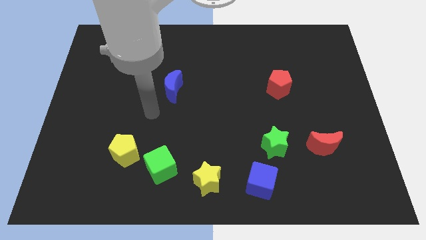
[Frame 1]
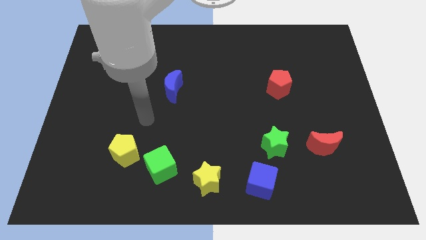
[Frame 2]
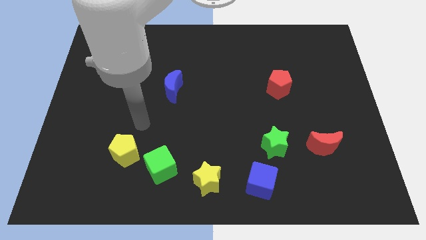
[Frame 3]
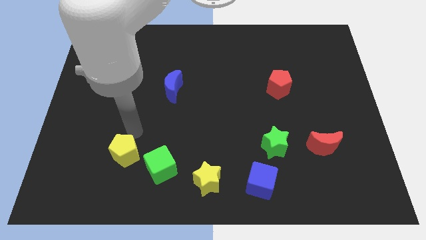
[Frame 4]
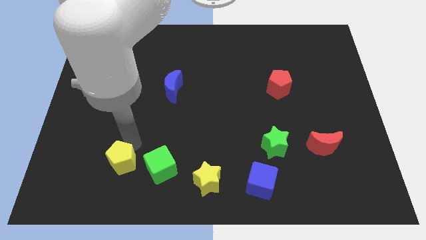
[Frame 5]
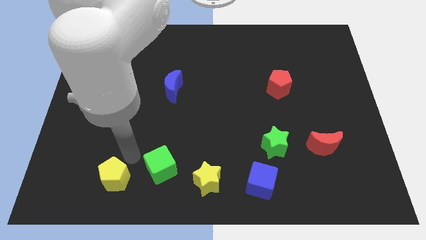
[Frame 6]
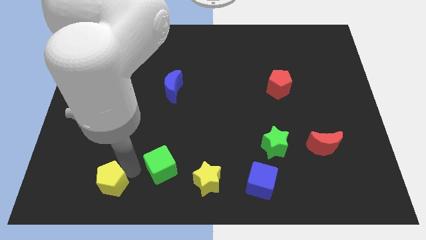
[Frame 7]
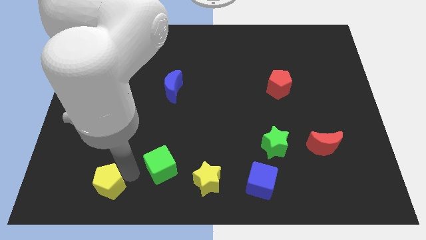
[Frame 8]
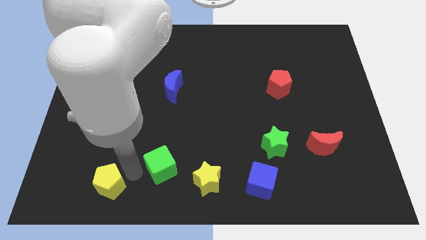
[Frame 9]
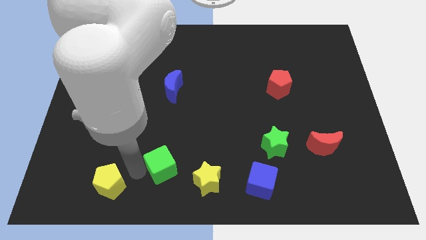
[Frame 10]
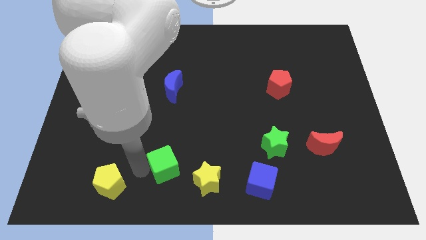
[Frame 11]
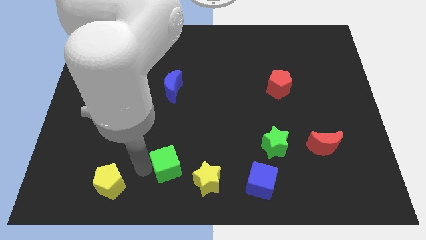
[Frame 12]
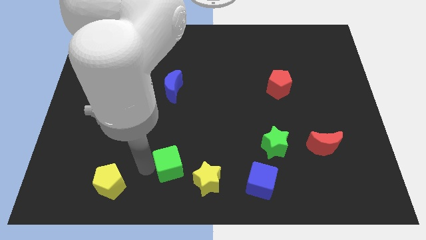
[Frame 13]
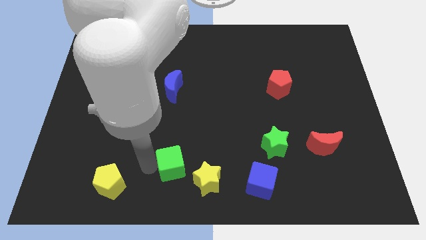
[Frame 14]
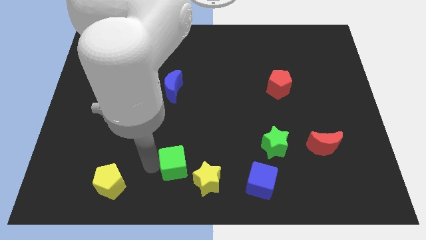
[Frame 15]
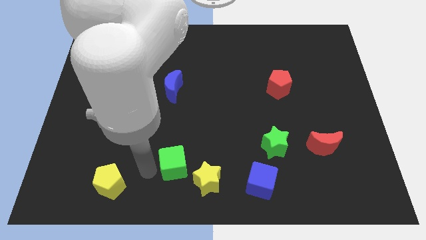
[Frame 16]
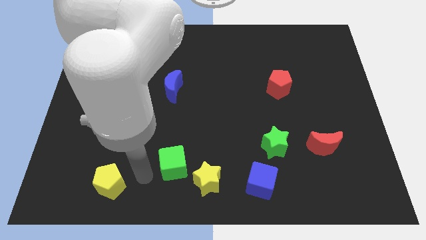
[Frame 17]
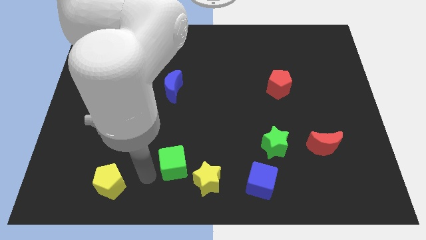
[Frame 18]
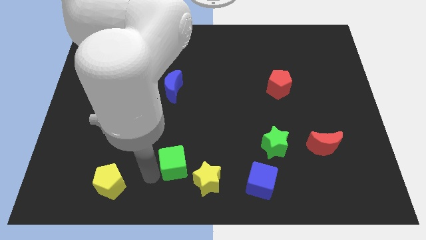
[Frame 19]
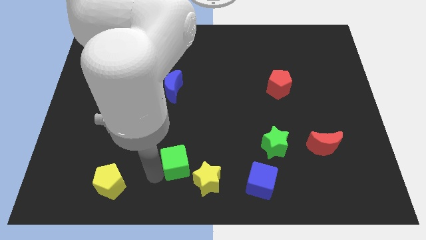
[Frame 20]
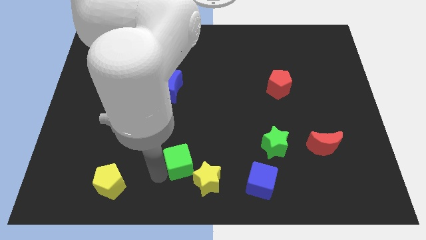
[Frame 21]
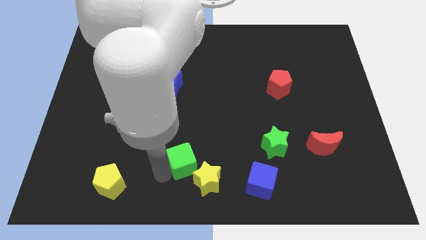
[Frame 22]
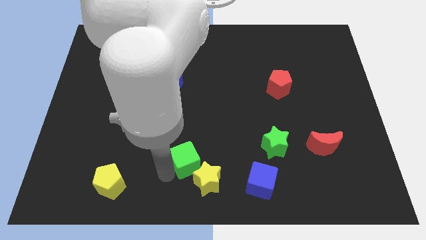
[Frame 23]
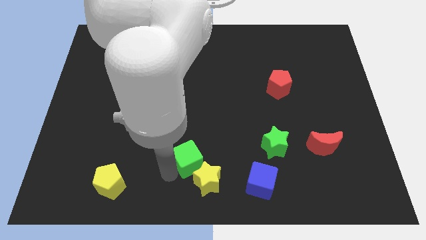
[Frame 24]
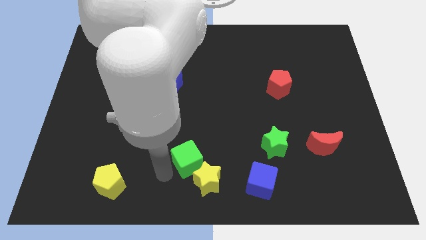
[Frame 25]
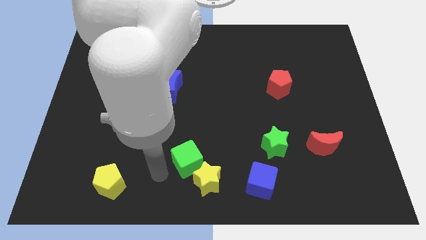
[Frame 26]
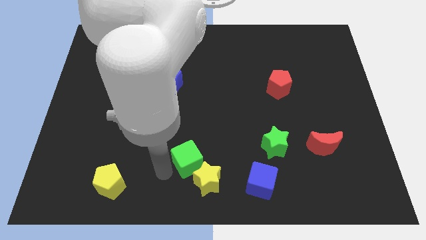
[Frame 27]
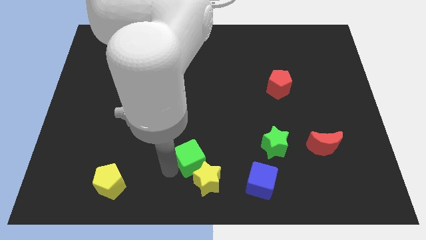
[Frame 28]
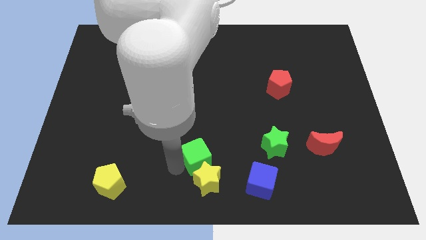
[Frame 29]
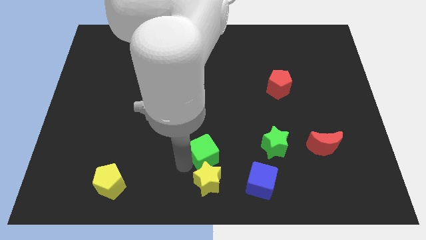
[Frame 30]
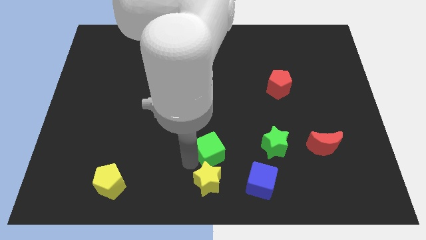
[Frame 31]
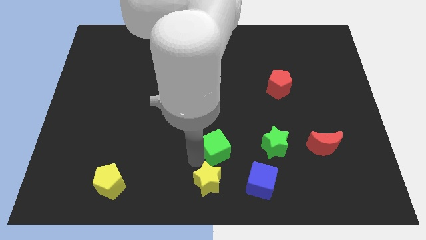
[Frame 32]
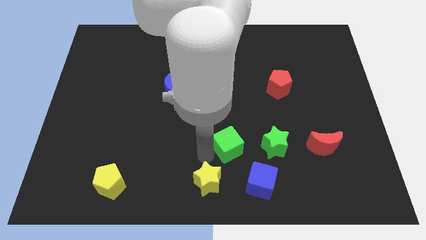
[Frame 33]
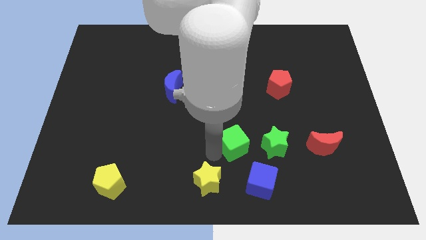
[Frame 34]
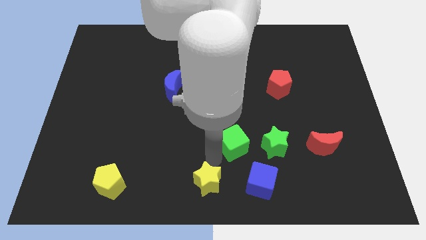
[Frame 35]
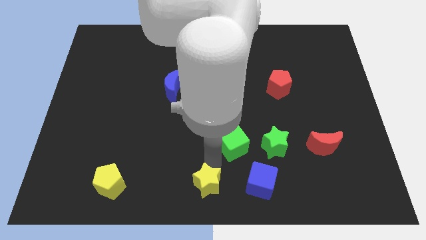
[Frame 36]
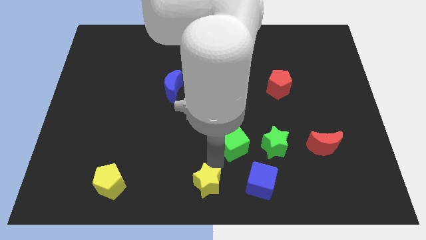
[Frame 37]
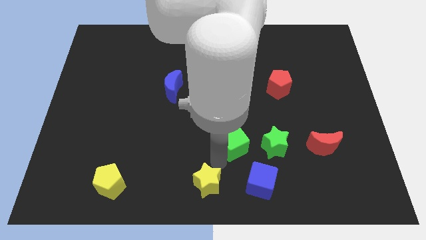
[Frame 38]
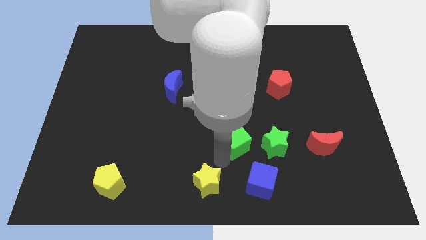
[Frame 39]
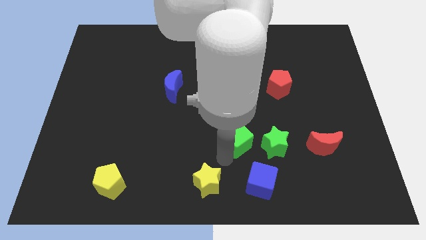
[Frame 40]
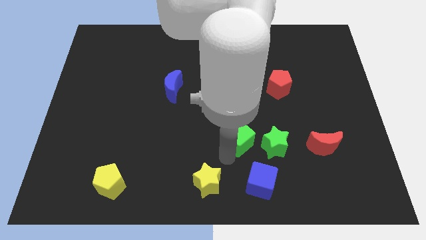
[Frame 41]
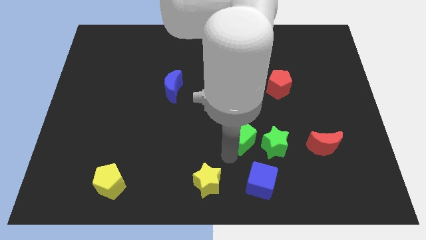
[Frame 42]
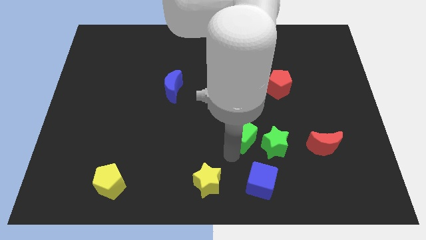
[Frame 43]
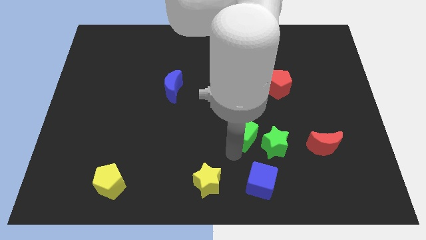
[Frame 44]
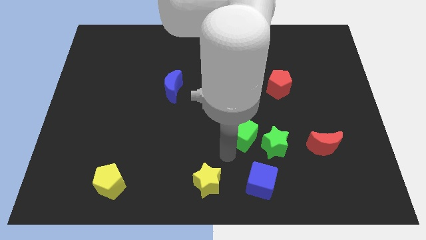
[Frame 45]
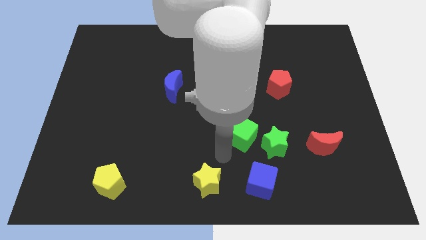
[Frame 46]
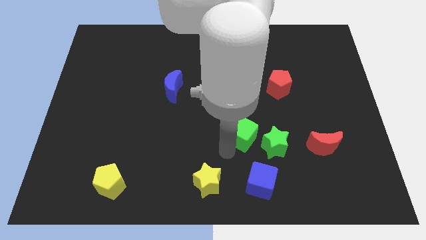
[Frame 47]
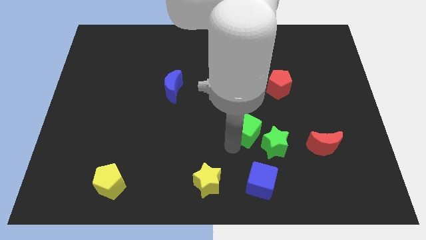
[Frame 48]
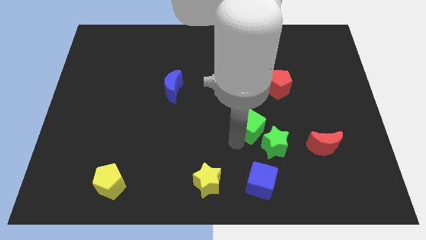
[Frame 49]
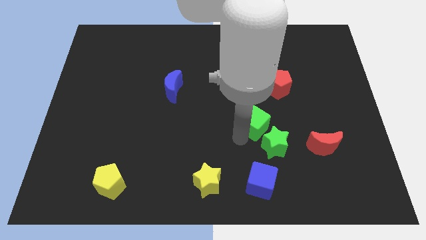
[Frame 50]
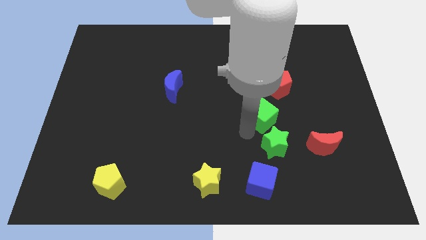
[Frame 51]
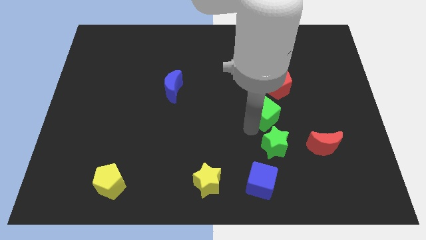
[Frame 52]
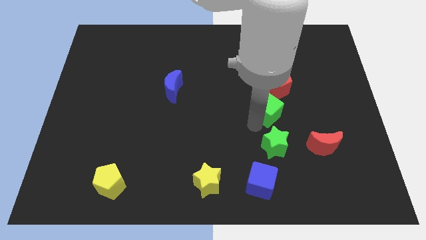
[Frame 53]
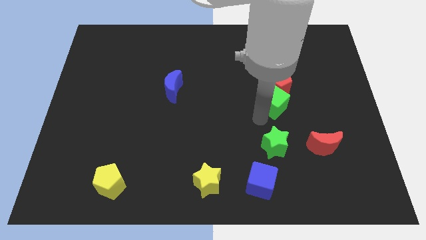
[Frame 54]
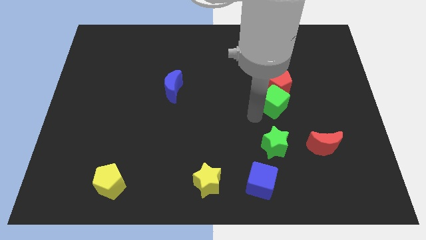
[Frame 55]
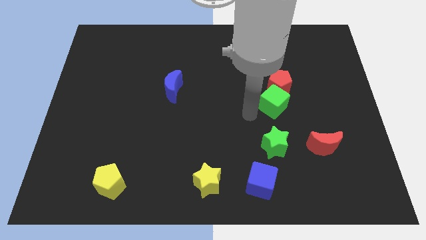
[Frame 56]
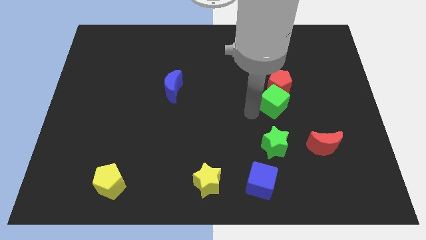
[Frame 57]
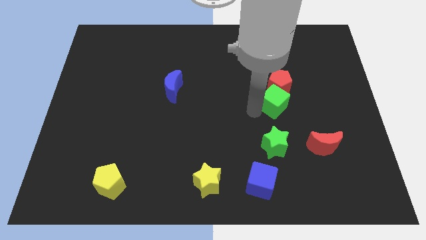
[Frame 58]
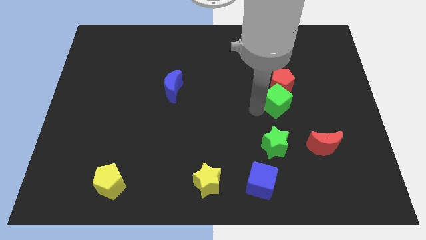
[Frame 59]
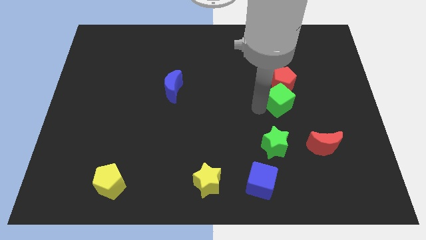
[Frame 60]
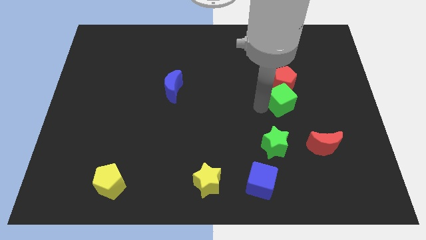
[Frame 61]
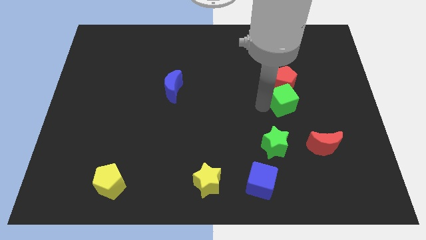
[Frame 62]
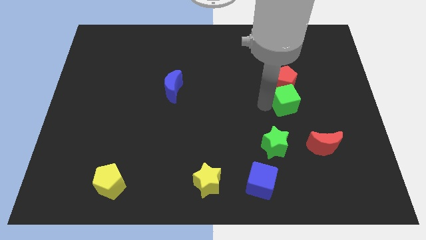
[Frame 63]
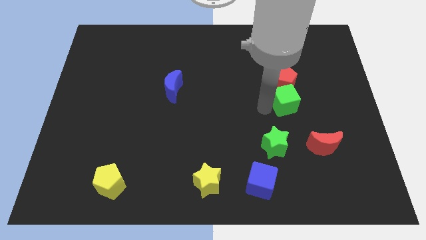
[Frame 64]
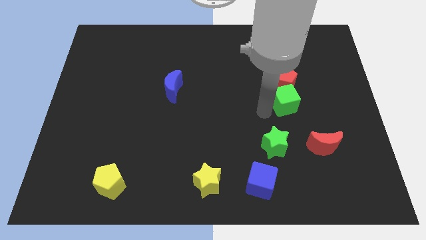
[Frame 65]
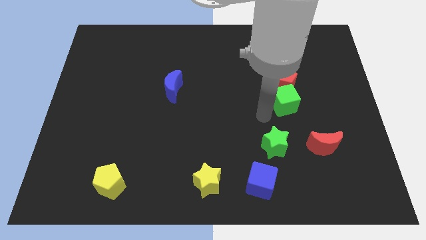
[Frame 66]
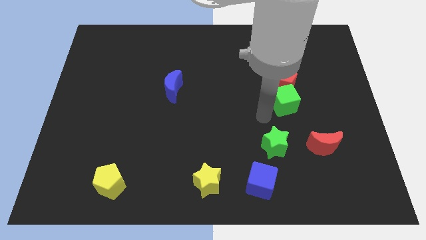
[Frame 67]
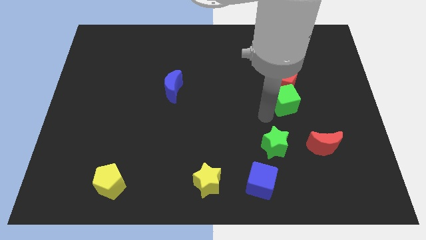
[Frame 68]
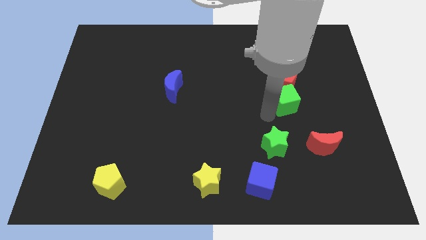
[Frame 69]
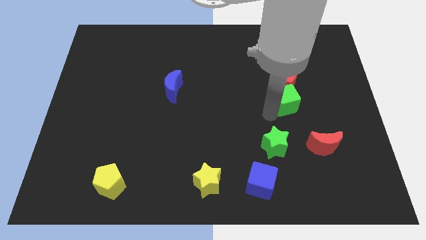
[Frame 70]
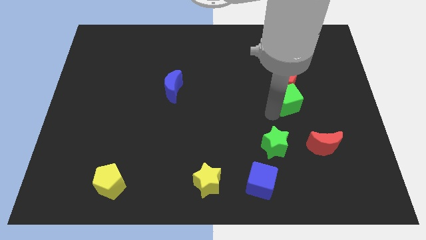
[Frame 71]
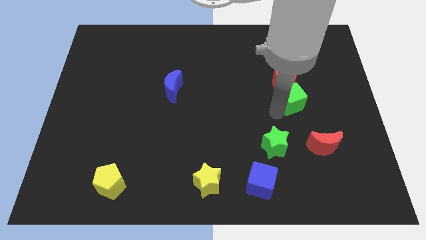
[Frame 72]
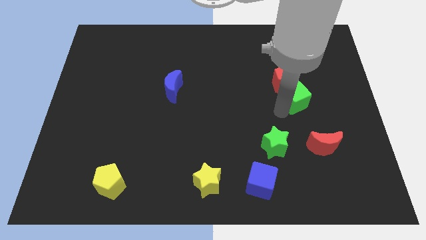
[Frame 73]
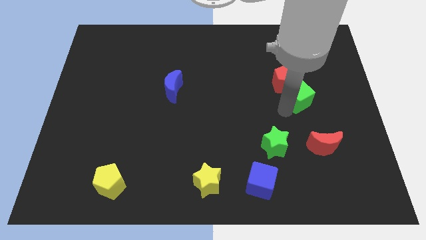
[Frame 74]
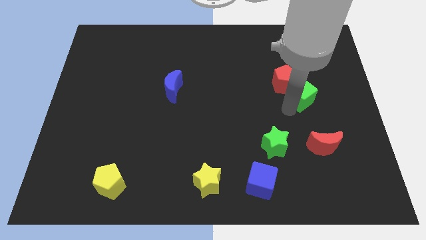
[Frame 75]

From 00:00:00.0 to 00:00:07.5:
push the green cube to the right of the red pentagon
